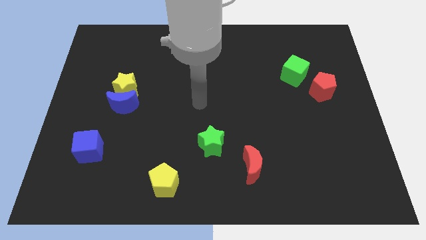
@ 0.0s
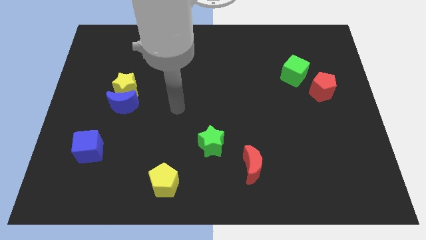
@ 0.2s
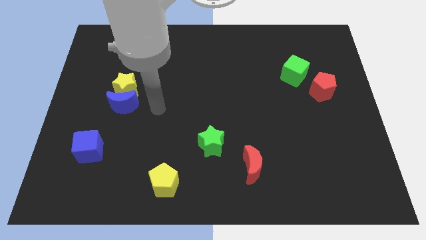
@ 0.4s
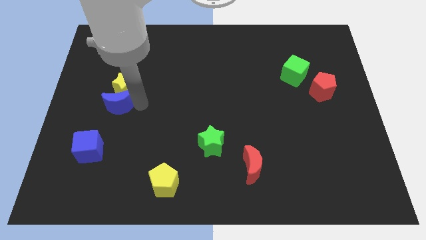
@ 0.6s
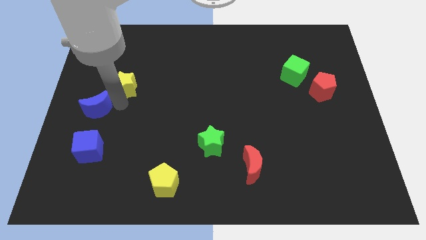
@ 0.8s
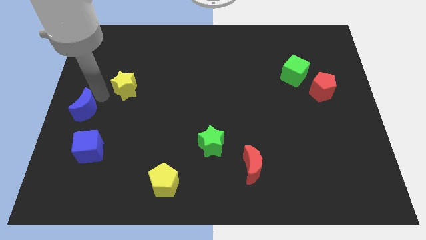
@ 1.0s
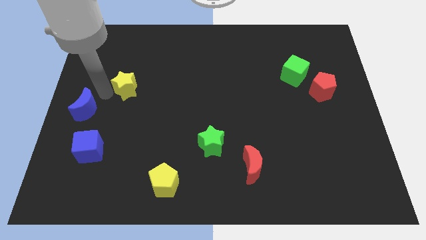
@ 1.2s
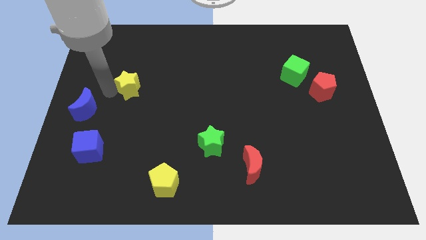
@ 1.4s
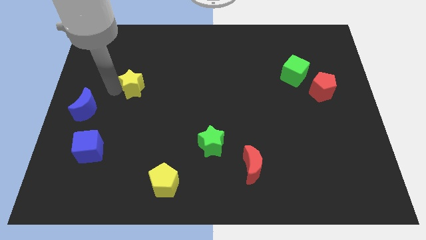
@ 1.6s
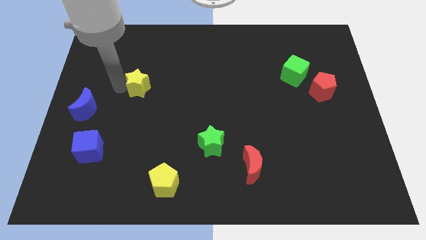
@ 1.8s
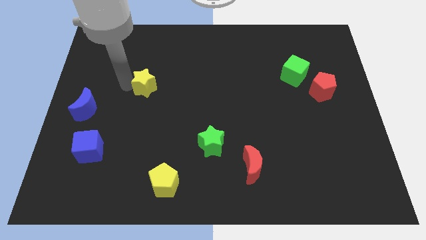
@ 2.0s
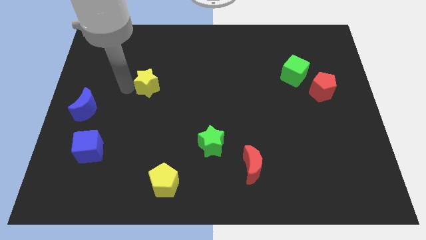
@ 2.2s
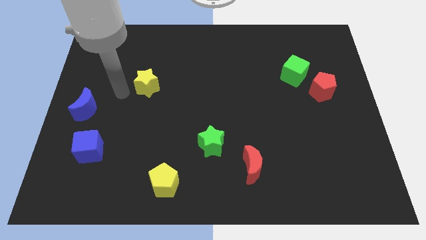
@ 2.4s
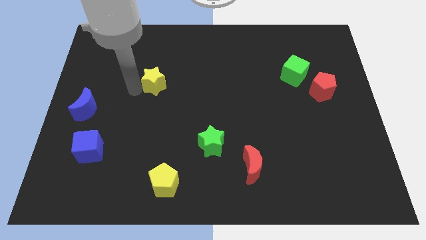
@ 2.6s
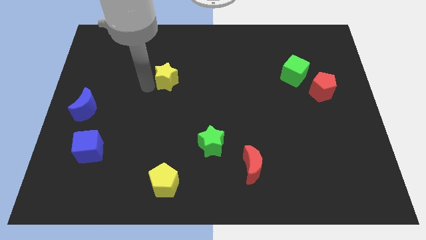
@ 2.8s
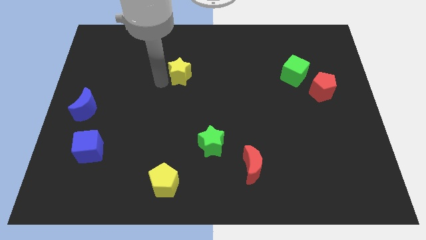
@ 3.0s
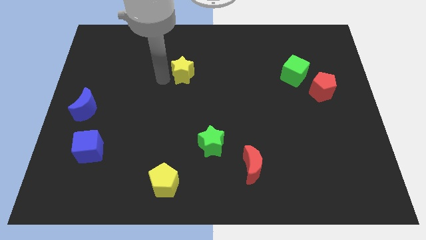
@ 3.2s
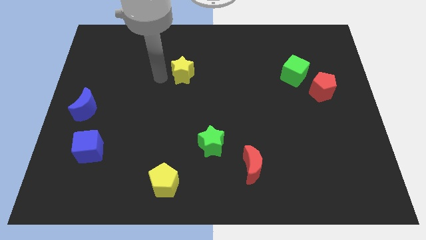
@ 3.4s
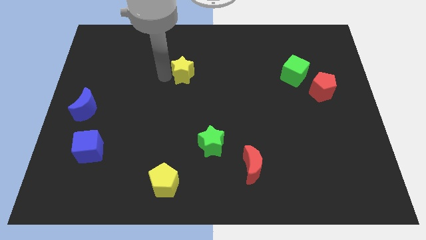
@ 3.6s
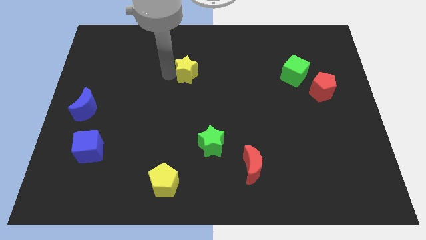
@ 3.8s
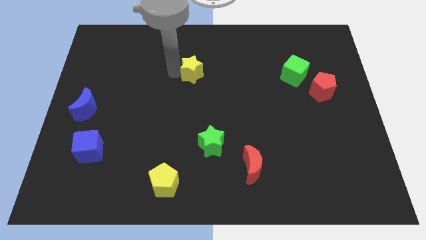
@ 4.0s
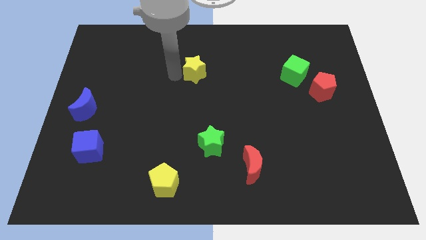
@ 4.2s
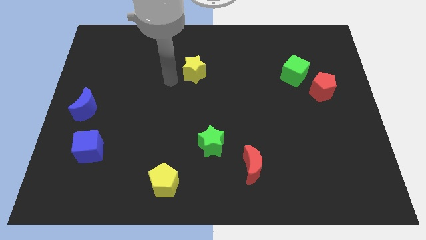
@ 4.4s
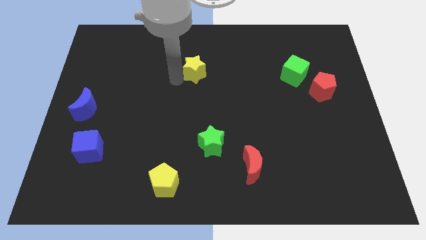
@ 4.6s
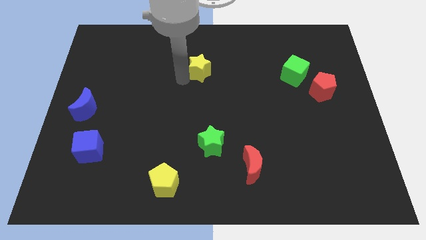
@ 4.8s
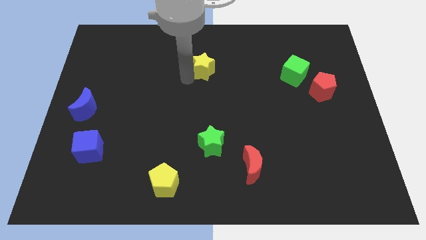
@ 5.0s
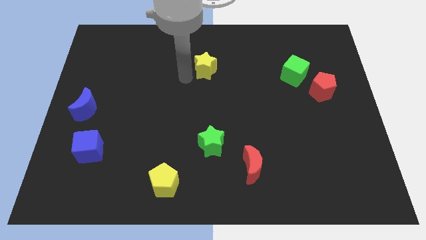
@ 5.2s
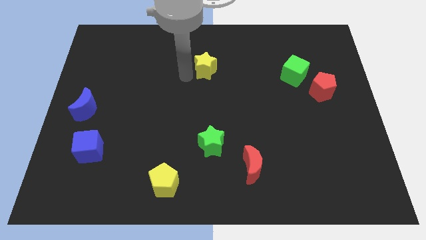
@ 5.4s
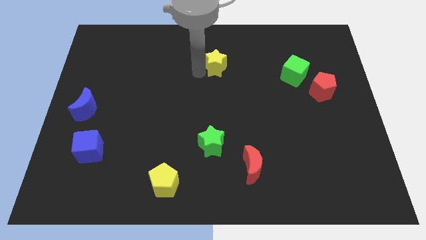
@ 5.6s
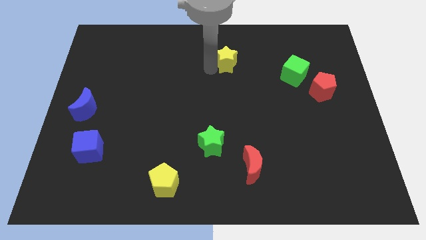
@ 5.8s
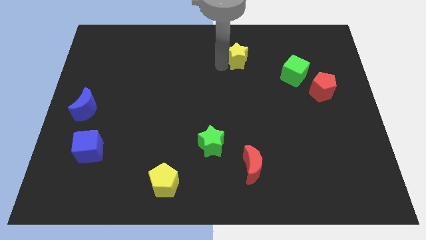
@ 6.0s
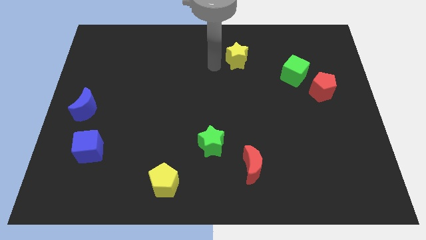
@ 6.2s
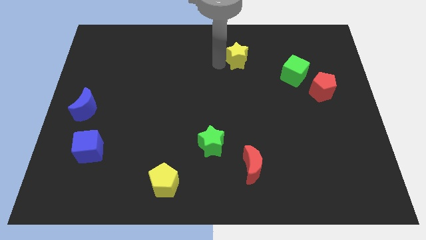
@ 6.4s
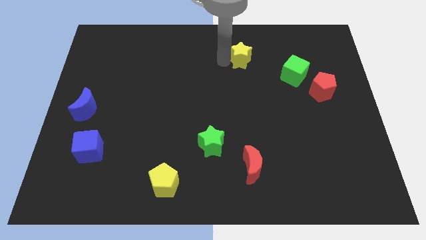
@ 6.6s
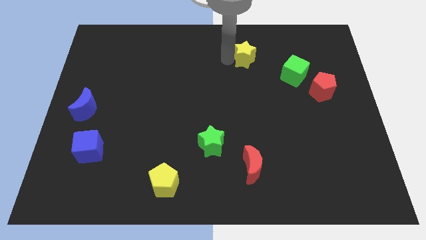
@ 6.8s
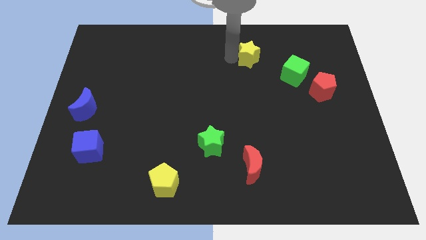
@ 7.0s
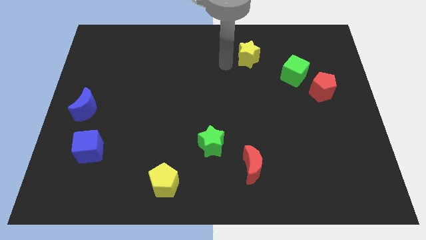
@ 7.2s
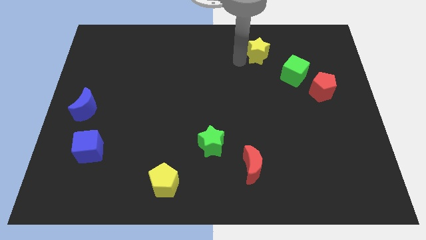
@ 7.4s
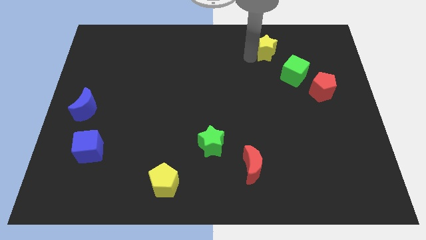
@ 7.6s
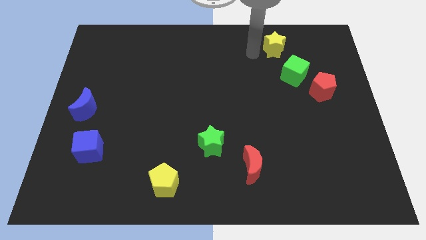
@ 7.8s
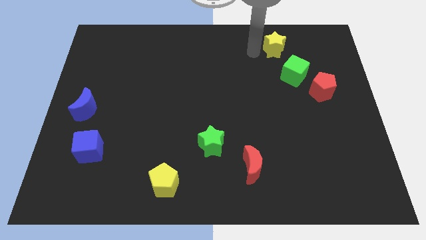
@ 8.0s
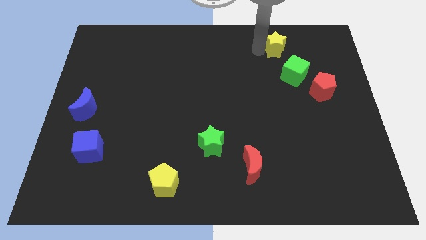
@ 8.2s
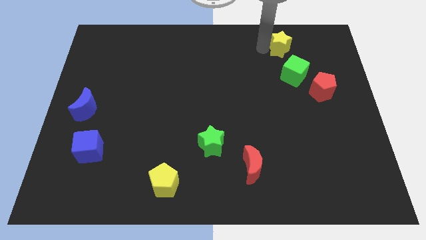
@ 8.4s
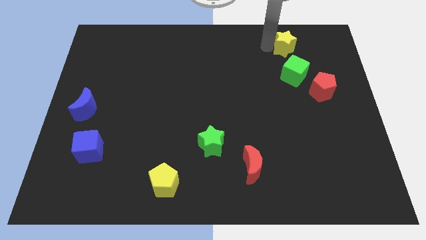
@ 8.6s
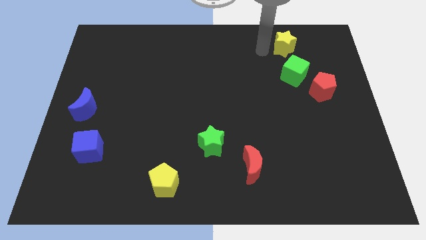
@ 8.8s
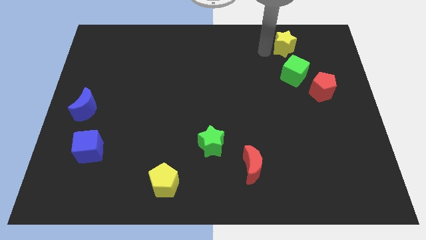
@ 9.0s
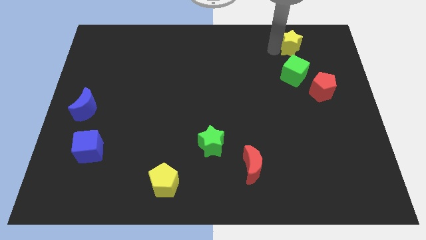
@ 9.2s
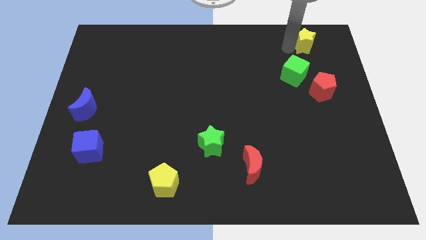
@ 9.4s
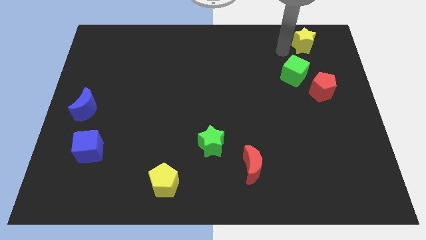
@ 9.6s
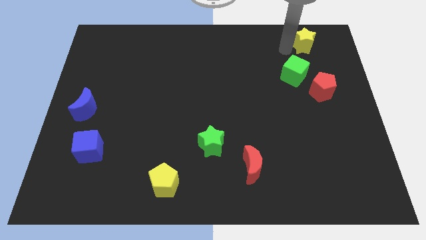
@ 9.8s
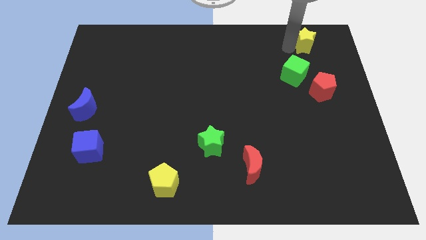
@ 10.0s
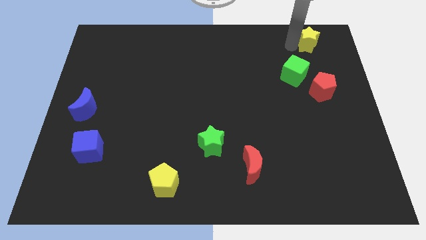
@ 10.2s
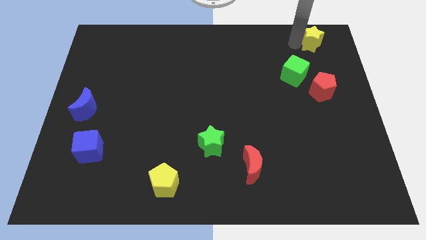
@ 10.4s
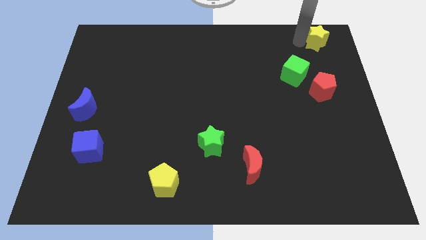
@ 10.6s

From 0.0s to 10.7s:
put the yellow star to the top right corner

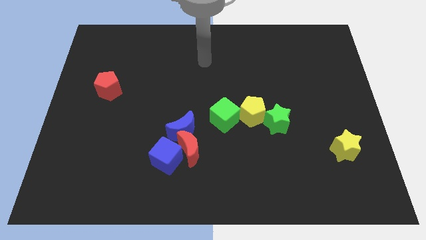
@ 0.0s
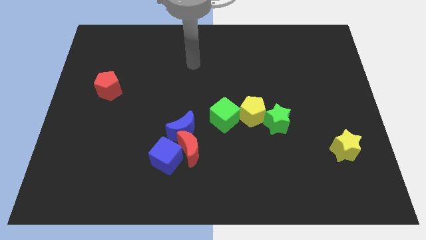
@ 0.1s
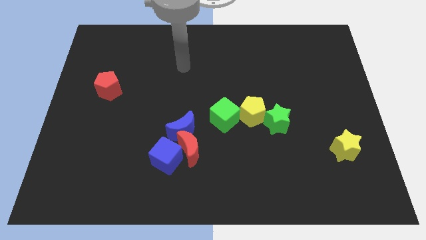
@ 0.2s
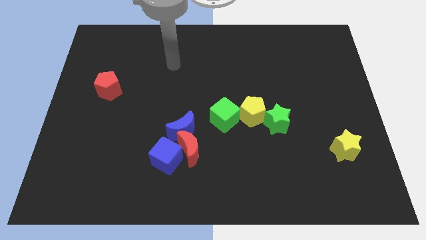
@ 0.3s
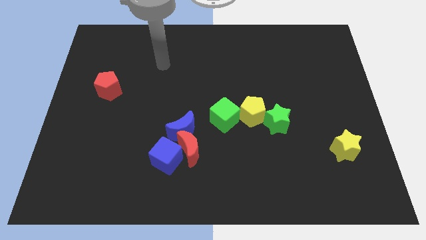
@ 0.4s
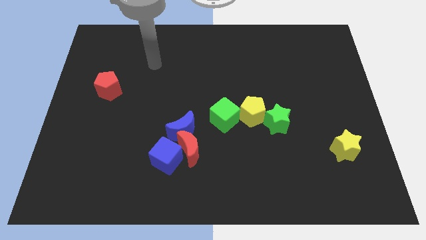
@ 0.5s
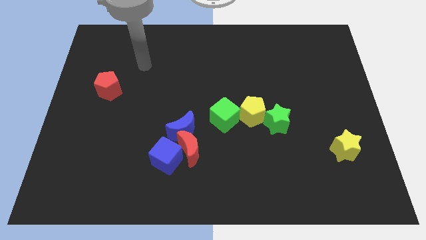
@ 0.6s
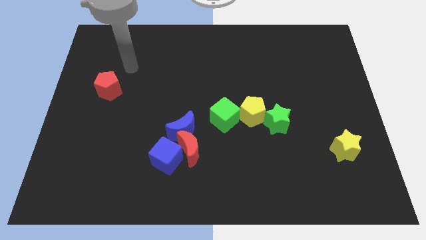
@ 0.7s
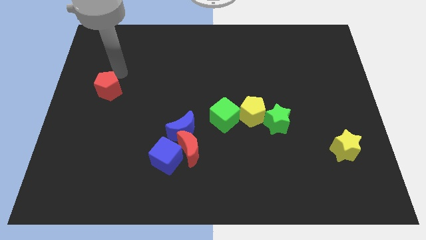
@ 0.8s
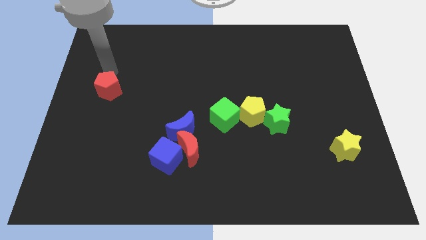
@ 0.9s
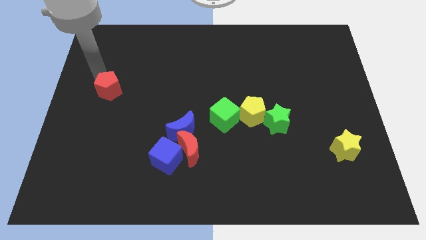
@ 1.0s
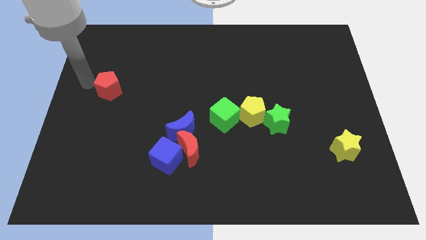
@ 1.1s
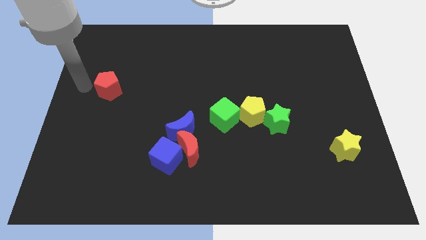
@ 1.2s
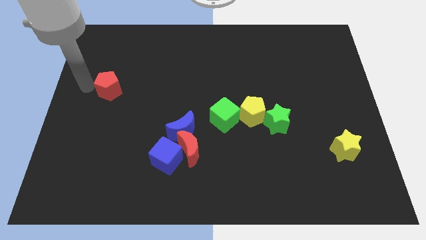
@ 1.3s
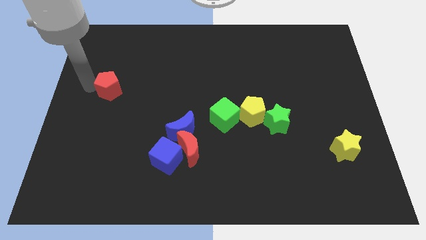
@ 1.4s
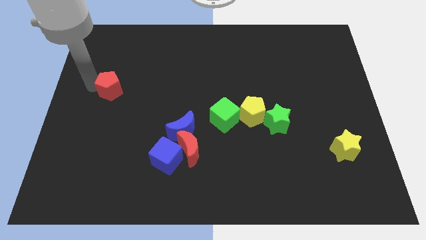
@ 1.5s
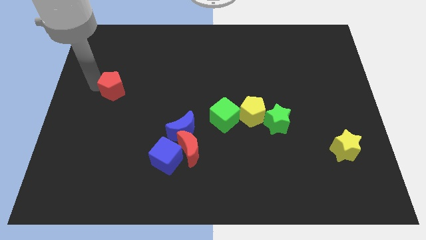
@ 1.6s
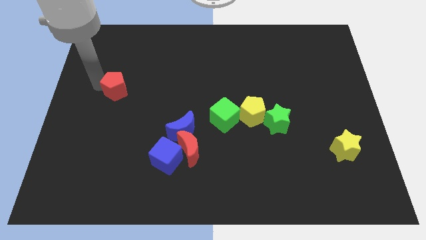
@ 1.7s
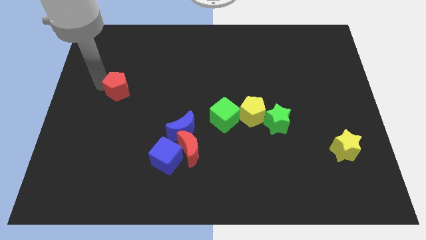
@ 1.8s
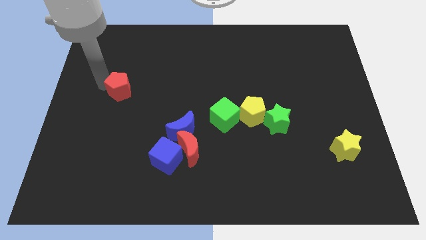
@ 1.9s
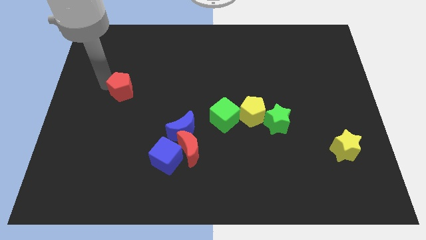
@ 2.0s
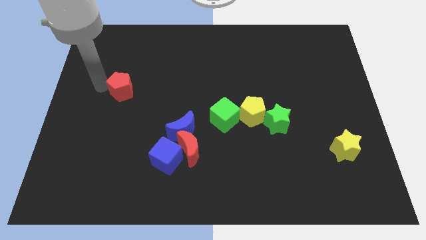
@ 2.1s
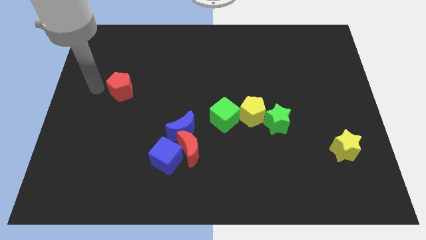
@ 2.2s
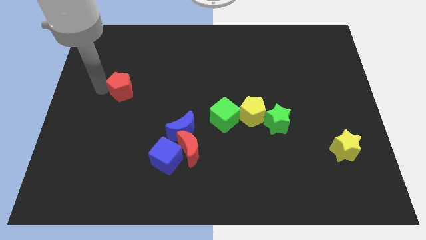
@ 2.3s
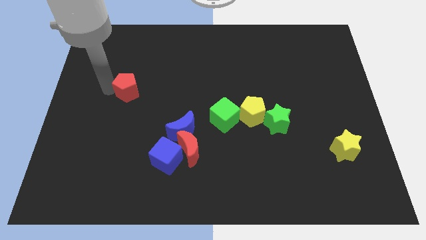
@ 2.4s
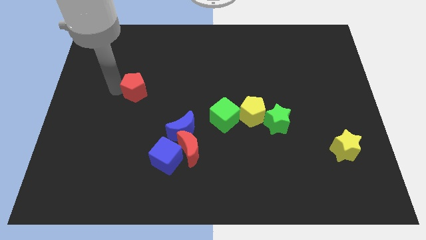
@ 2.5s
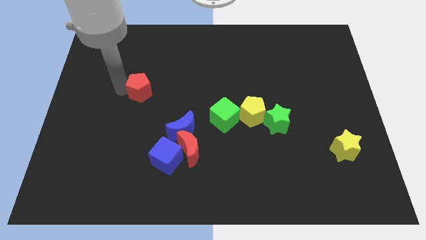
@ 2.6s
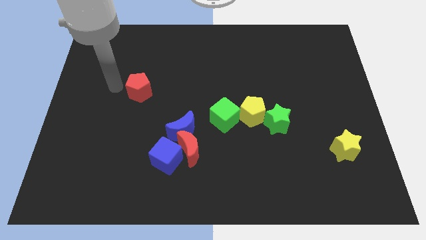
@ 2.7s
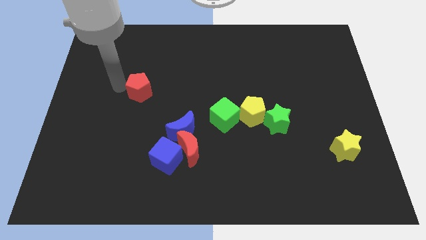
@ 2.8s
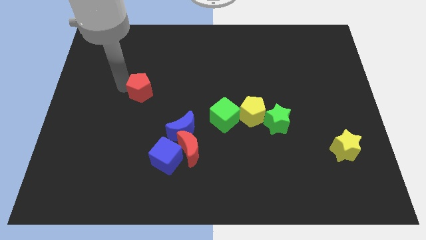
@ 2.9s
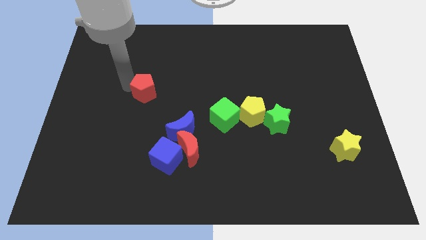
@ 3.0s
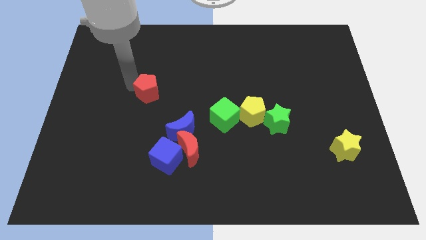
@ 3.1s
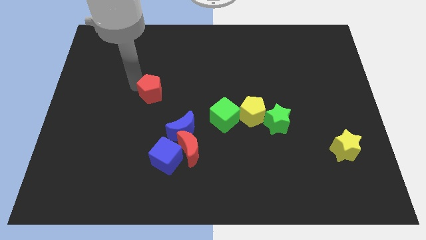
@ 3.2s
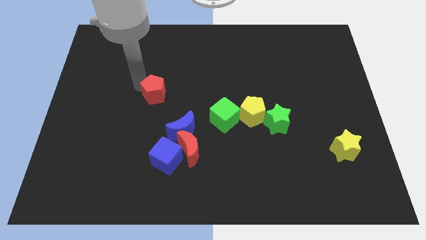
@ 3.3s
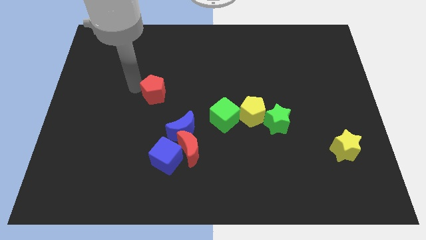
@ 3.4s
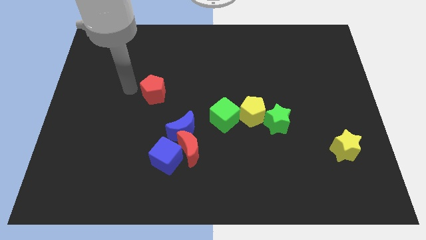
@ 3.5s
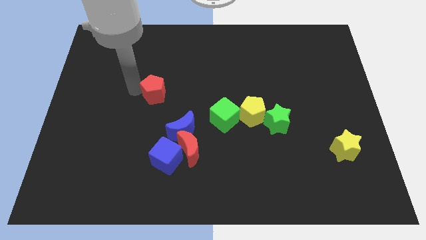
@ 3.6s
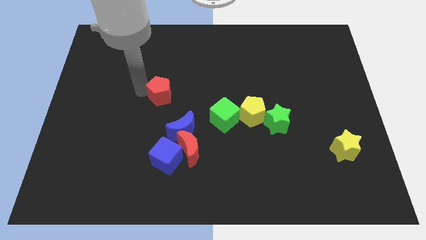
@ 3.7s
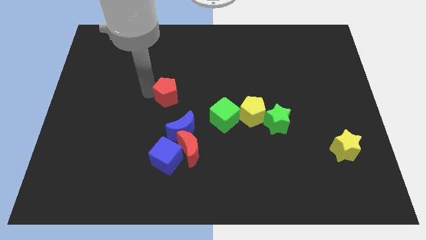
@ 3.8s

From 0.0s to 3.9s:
put the red pentagon to the middle
